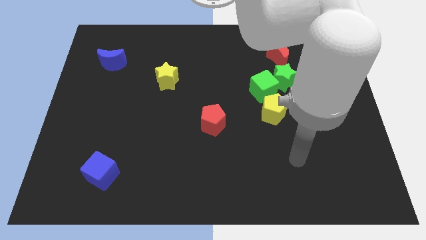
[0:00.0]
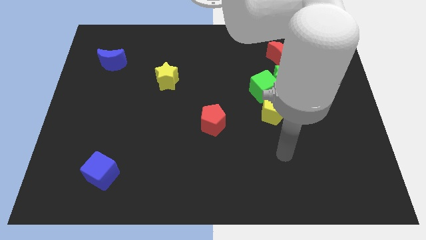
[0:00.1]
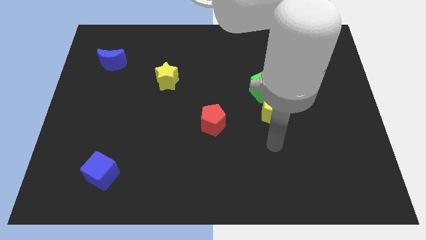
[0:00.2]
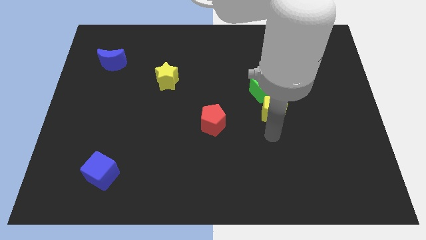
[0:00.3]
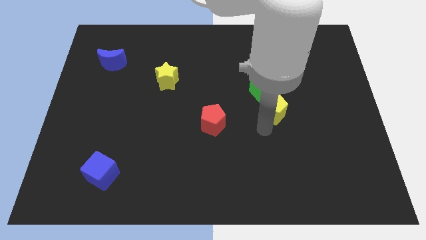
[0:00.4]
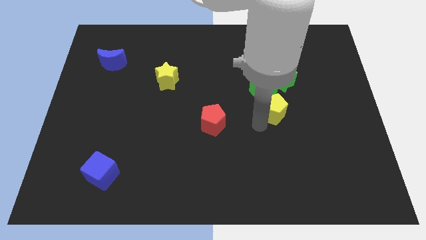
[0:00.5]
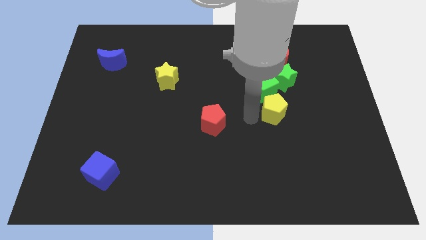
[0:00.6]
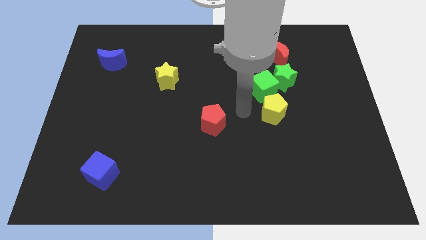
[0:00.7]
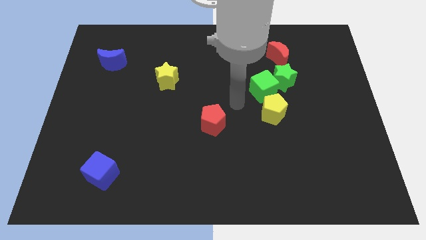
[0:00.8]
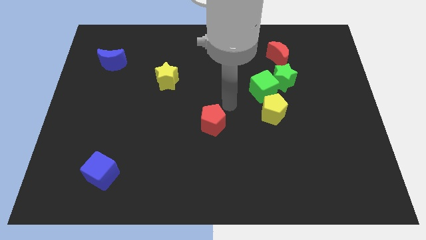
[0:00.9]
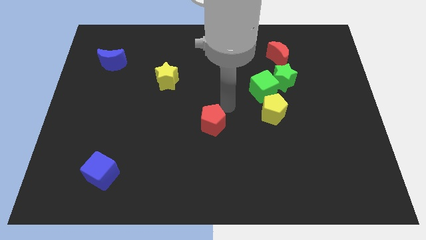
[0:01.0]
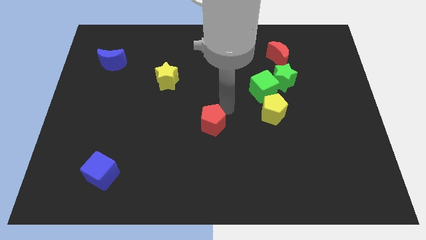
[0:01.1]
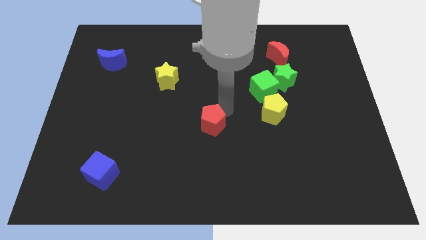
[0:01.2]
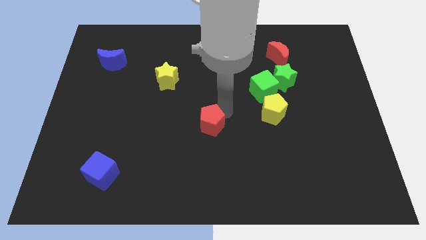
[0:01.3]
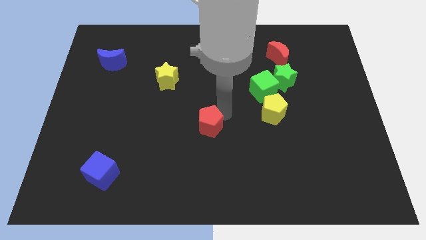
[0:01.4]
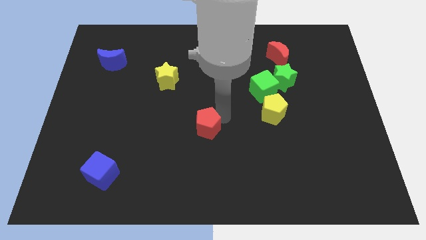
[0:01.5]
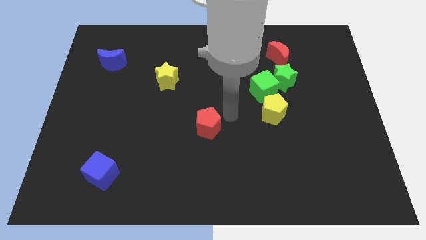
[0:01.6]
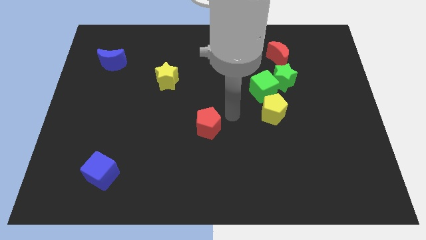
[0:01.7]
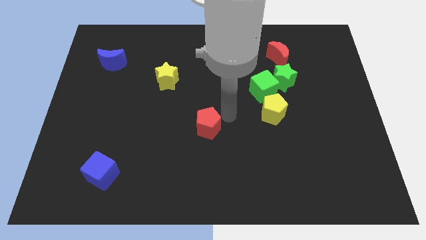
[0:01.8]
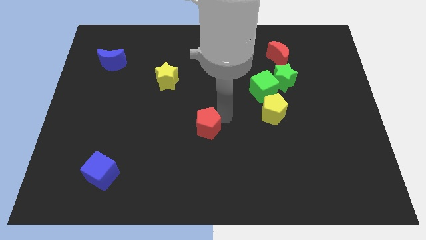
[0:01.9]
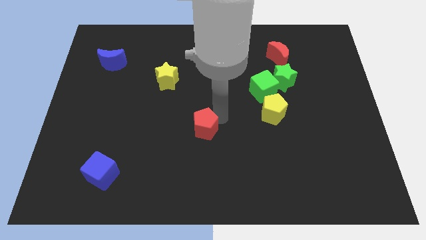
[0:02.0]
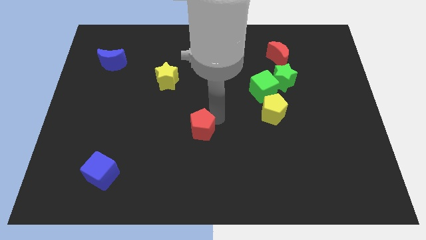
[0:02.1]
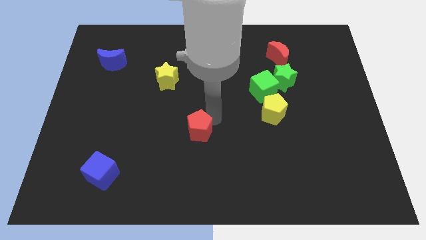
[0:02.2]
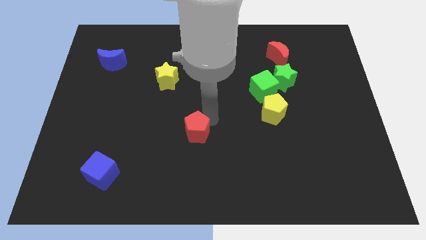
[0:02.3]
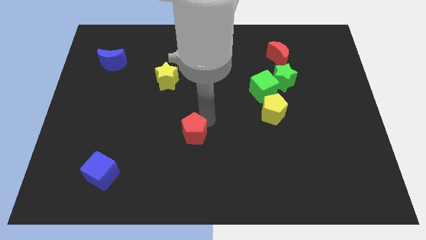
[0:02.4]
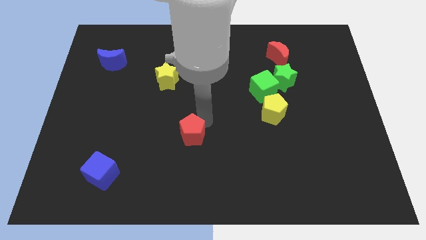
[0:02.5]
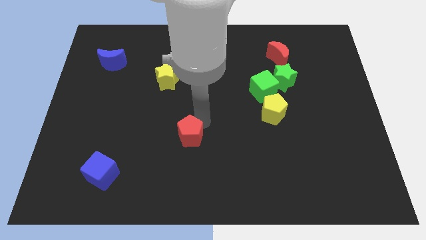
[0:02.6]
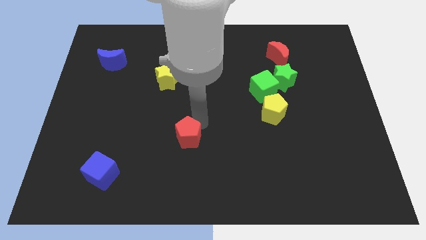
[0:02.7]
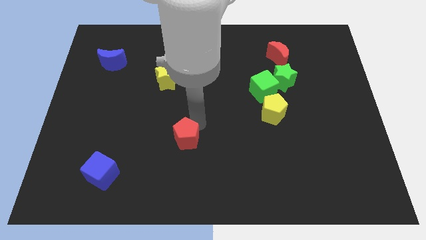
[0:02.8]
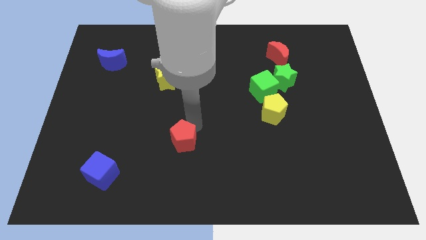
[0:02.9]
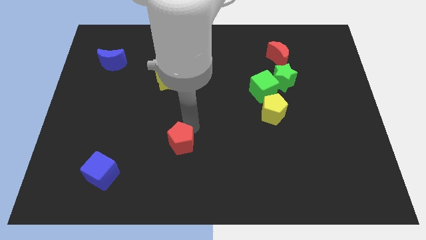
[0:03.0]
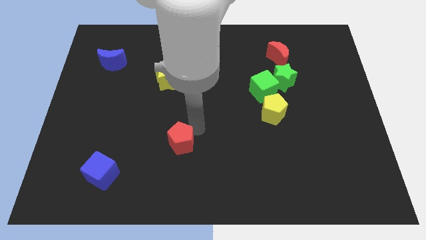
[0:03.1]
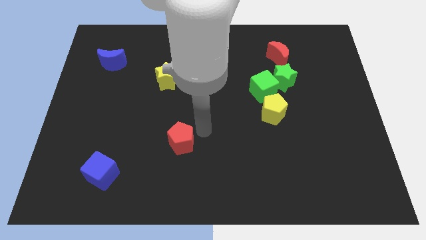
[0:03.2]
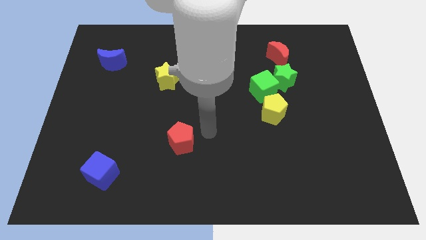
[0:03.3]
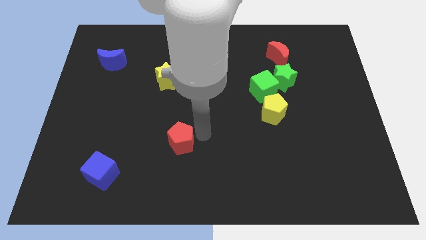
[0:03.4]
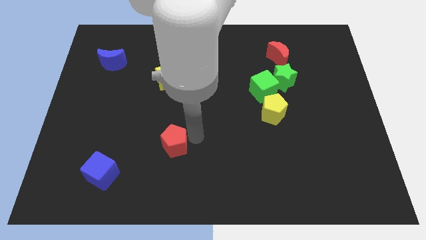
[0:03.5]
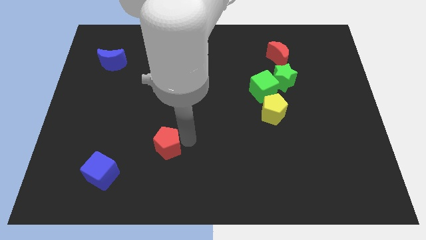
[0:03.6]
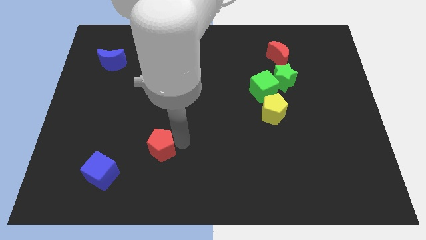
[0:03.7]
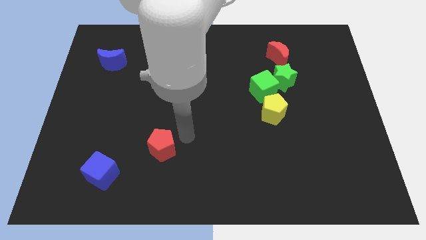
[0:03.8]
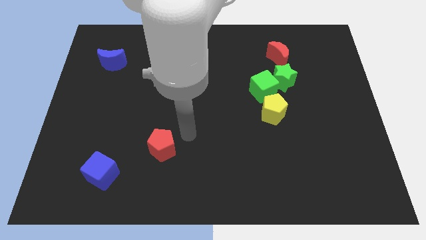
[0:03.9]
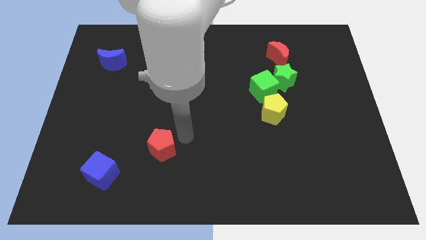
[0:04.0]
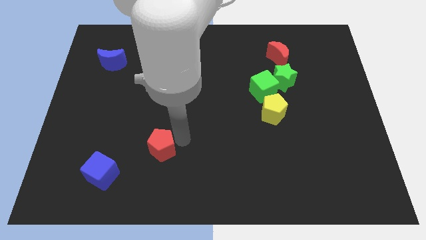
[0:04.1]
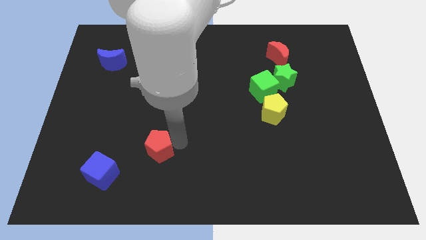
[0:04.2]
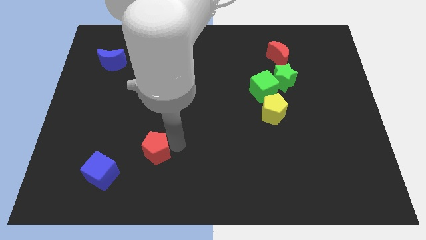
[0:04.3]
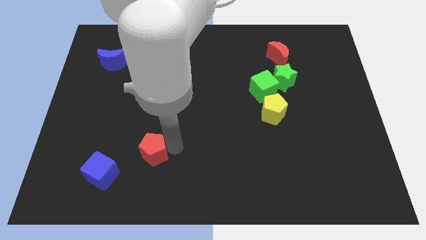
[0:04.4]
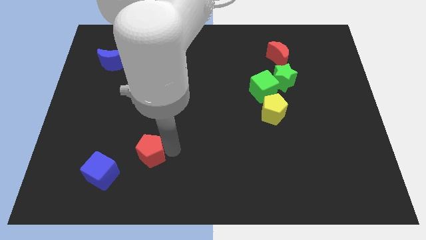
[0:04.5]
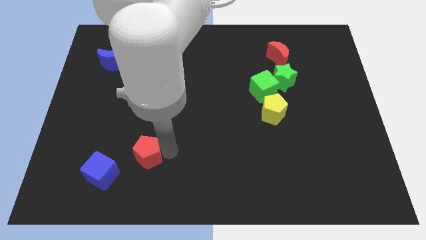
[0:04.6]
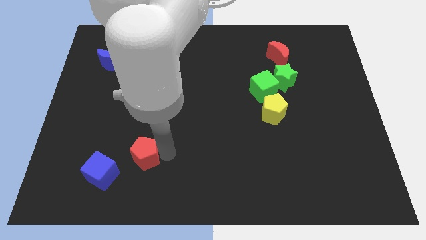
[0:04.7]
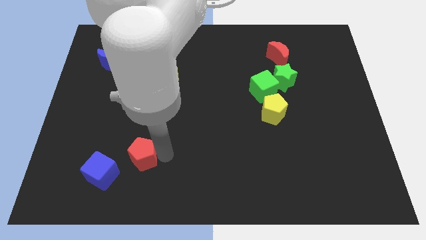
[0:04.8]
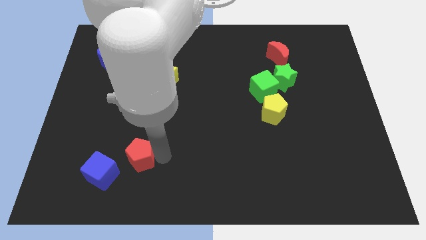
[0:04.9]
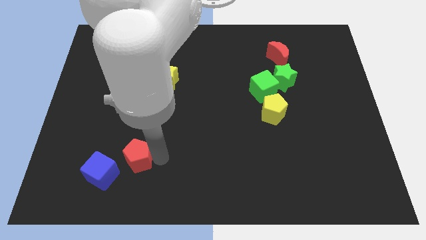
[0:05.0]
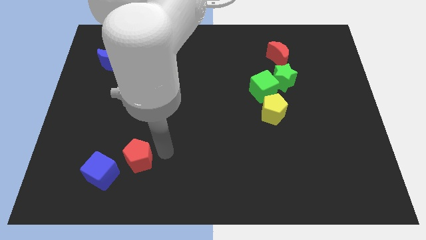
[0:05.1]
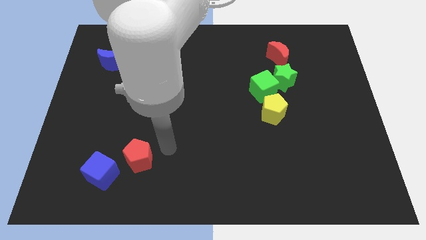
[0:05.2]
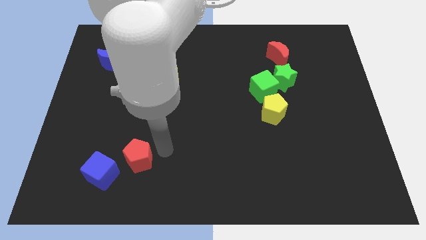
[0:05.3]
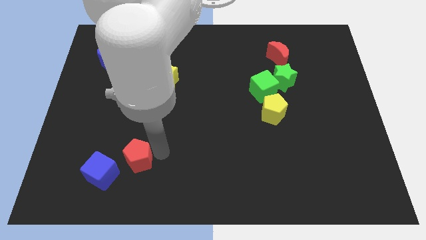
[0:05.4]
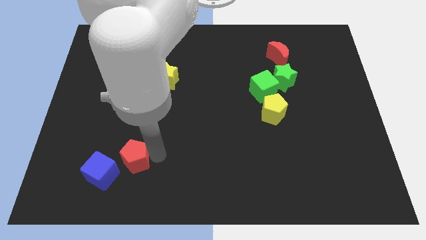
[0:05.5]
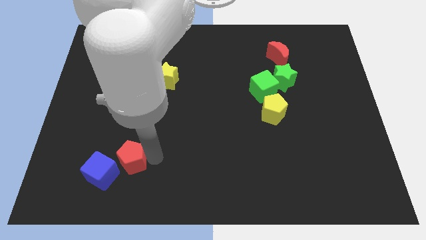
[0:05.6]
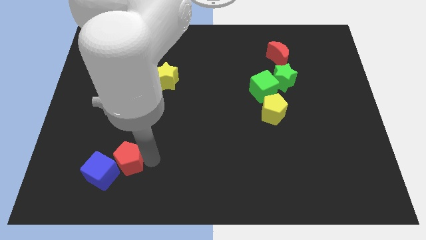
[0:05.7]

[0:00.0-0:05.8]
move the red pentagon towards the blue cube

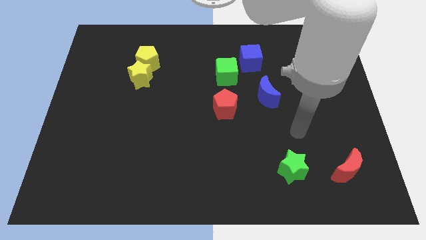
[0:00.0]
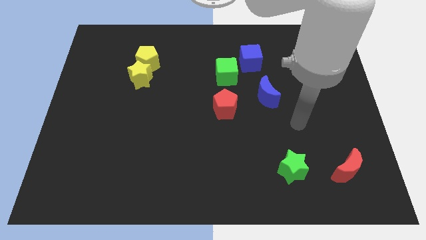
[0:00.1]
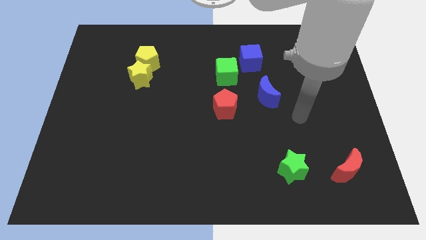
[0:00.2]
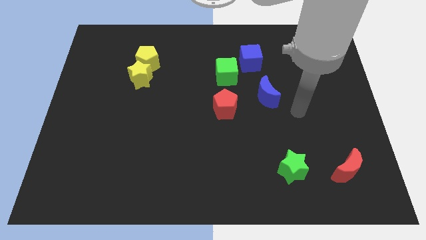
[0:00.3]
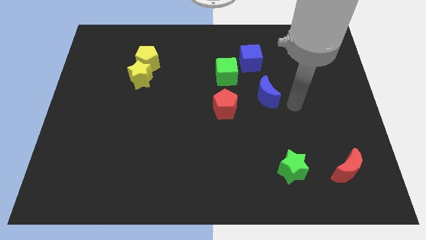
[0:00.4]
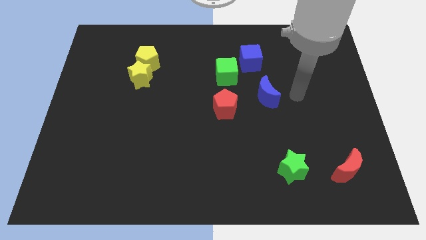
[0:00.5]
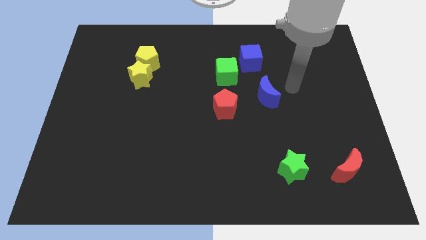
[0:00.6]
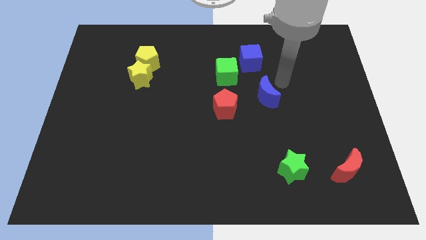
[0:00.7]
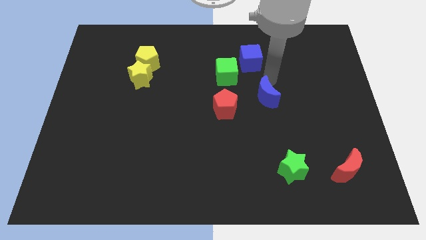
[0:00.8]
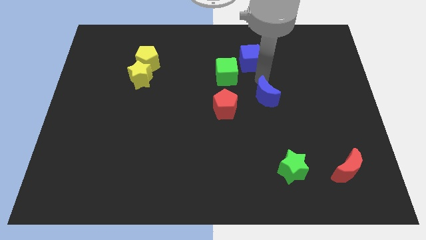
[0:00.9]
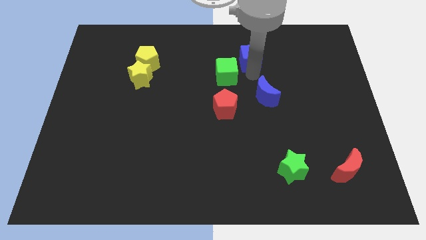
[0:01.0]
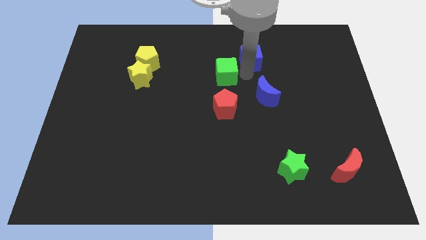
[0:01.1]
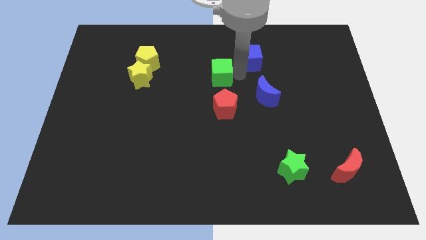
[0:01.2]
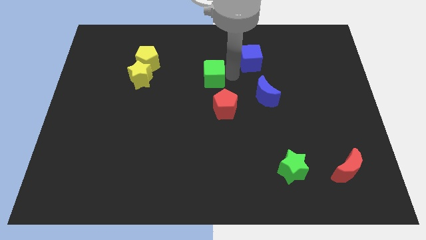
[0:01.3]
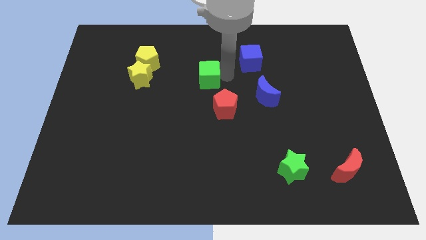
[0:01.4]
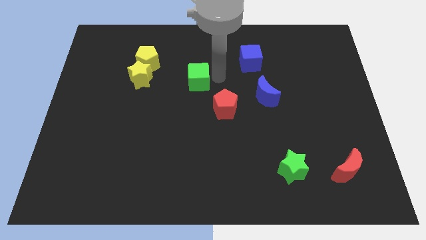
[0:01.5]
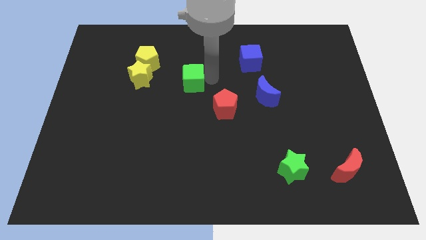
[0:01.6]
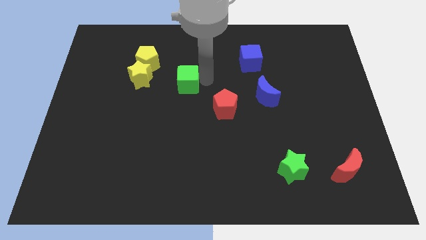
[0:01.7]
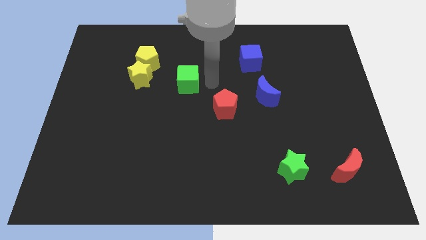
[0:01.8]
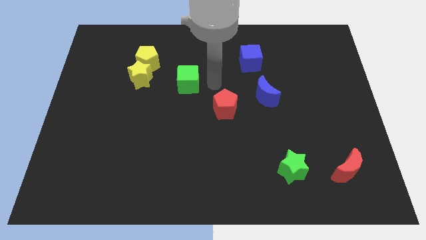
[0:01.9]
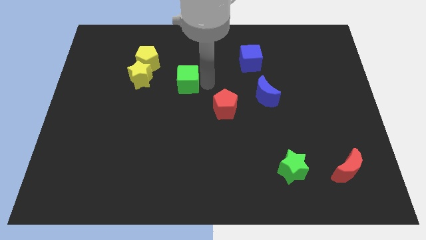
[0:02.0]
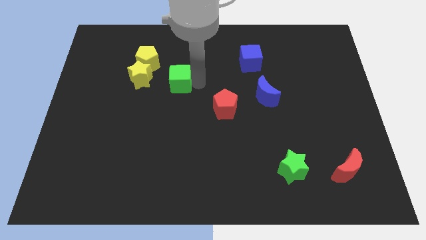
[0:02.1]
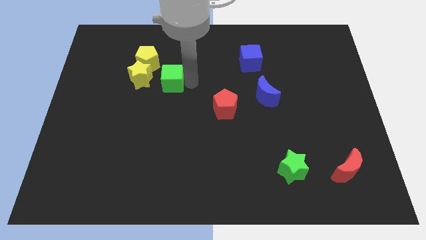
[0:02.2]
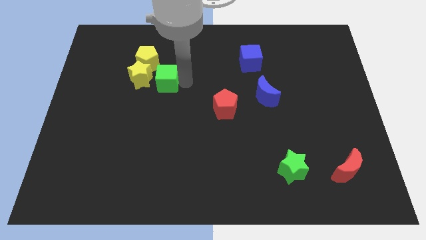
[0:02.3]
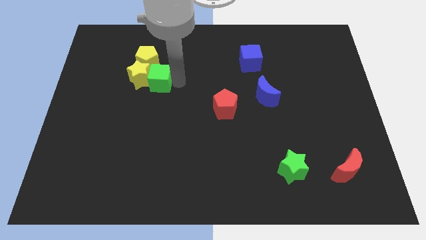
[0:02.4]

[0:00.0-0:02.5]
push the green cube to the yellow star
